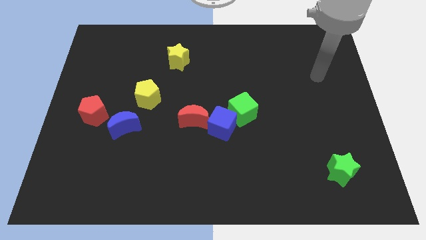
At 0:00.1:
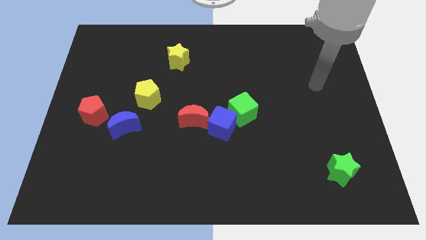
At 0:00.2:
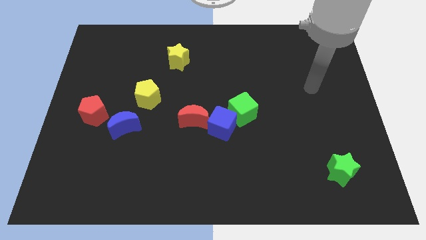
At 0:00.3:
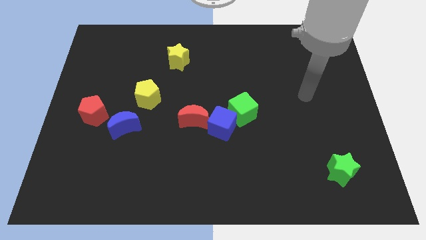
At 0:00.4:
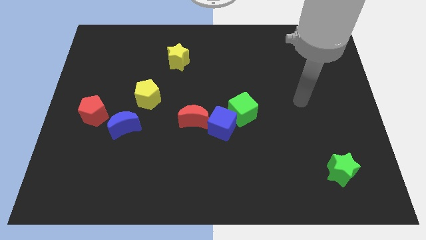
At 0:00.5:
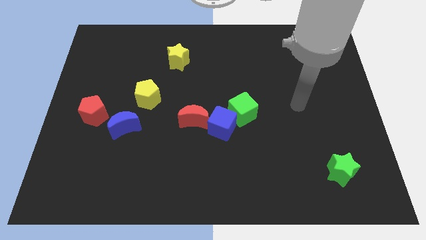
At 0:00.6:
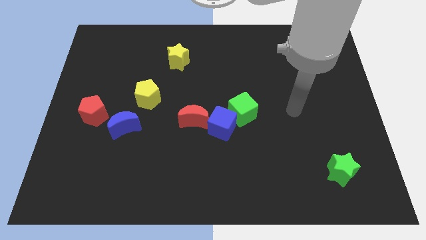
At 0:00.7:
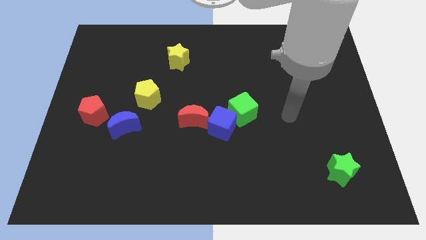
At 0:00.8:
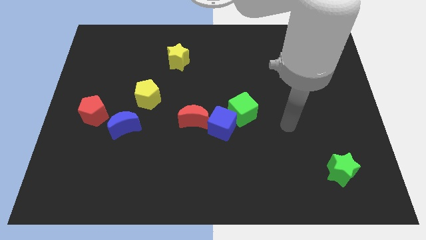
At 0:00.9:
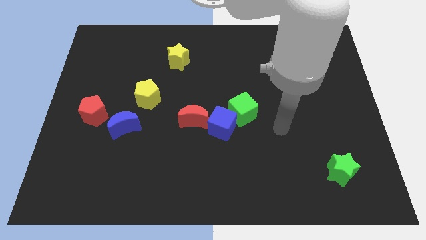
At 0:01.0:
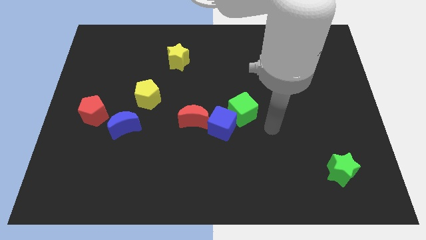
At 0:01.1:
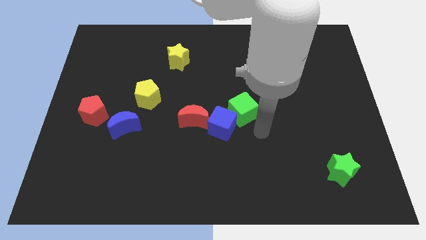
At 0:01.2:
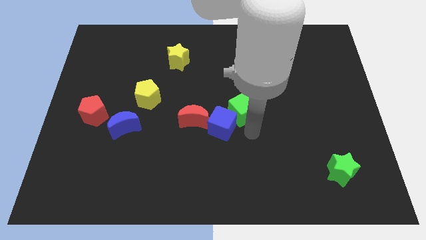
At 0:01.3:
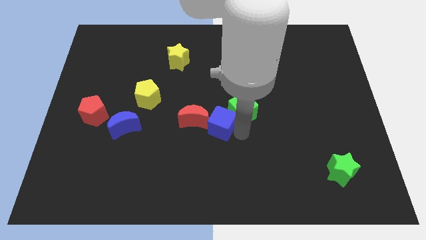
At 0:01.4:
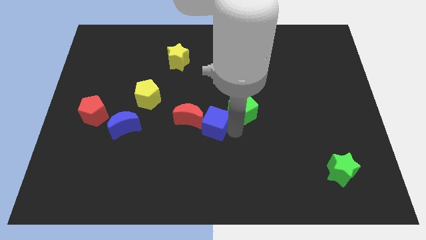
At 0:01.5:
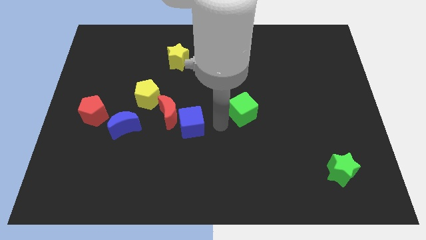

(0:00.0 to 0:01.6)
pull the green cube apart from the blue cube

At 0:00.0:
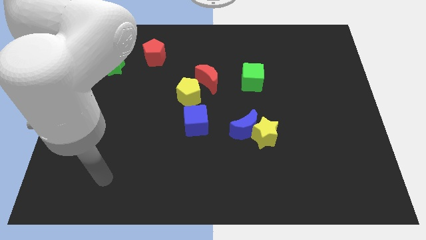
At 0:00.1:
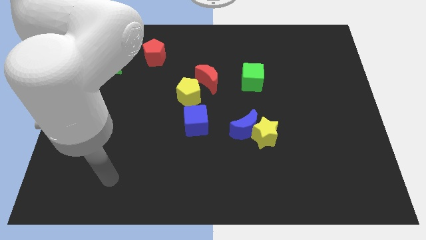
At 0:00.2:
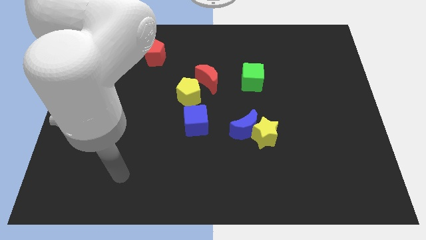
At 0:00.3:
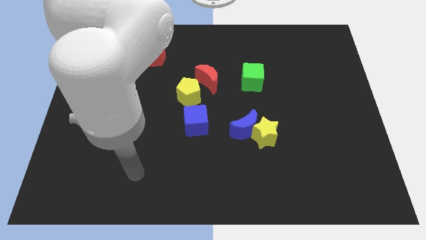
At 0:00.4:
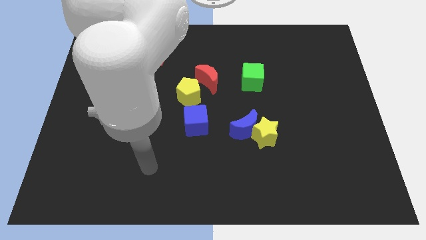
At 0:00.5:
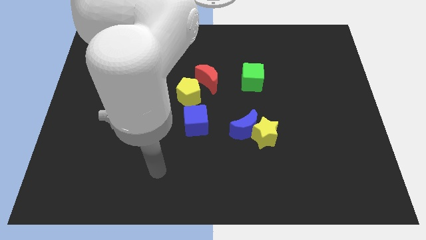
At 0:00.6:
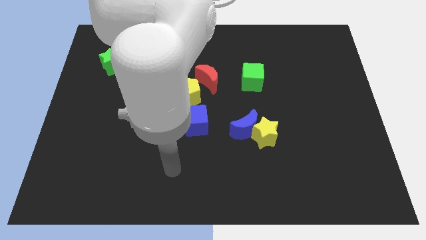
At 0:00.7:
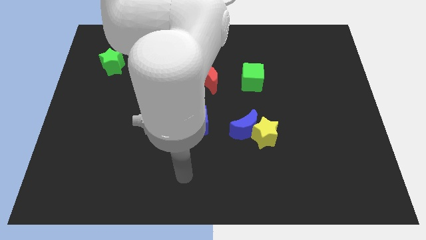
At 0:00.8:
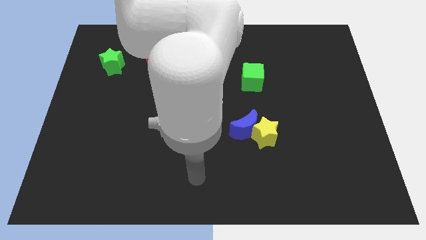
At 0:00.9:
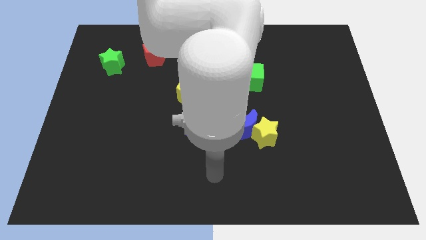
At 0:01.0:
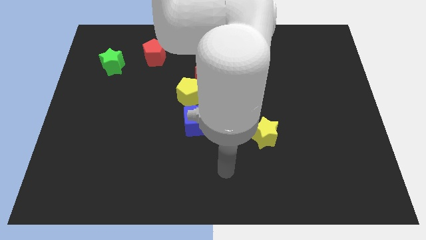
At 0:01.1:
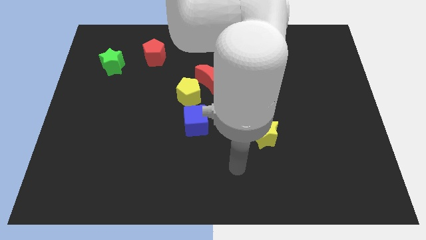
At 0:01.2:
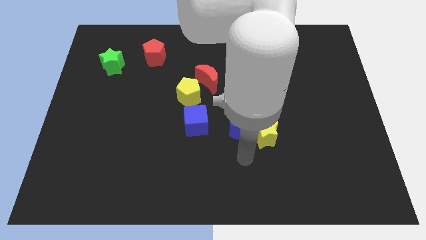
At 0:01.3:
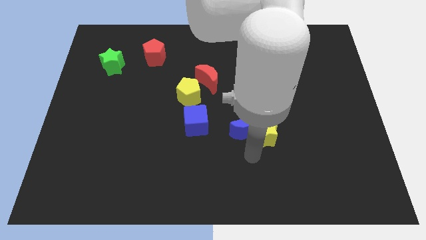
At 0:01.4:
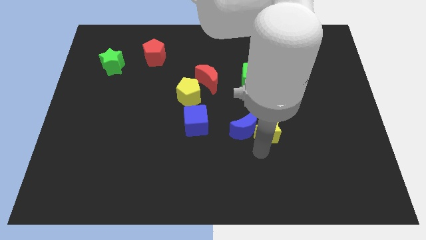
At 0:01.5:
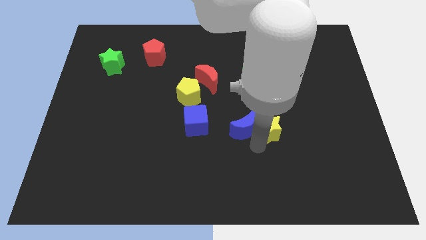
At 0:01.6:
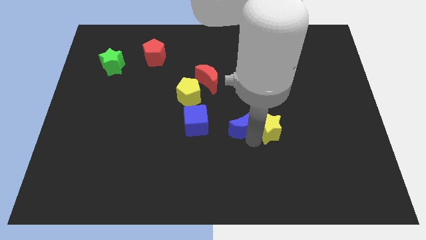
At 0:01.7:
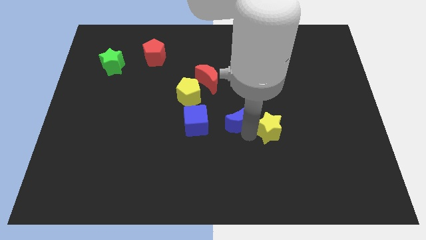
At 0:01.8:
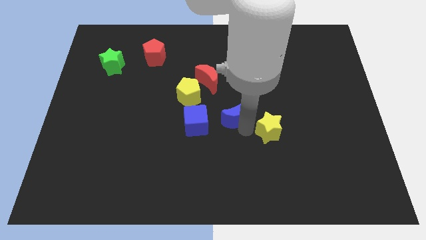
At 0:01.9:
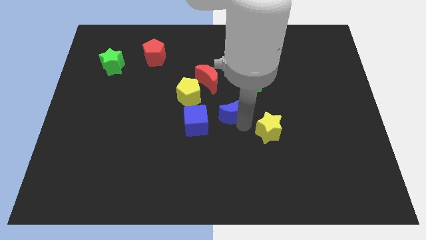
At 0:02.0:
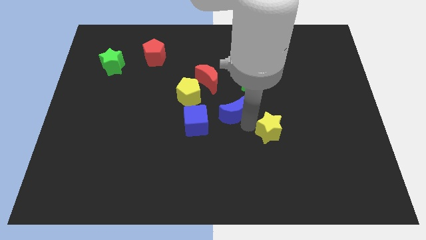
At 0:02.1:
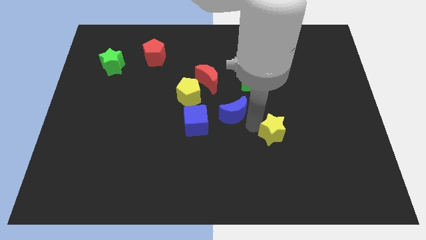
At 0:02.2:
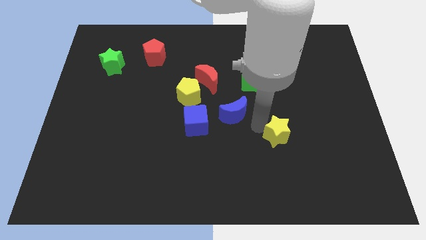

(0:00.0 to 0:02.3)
move the blue moon away from the yellow star

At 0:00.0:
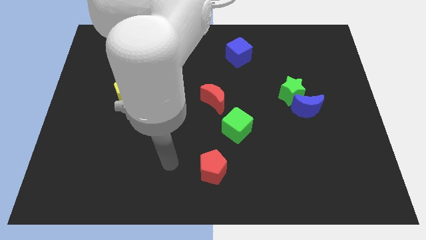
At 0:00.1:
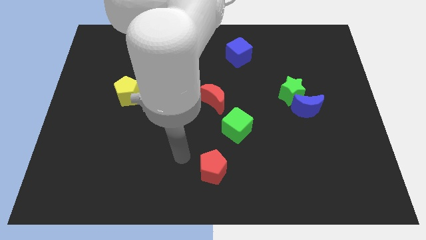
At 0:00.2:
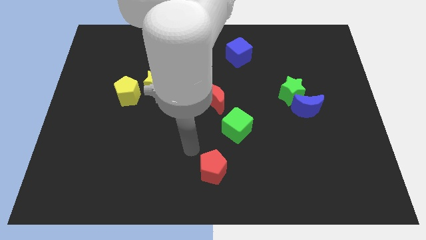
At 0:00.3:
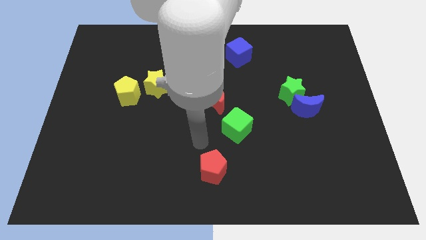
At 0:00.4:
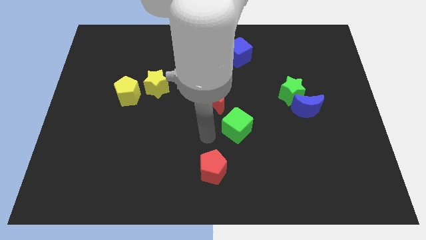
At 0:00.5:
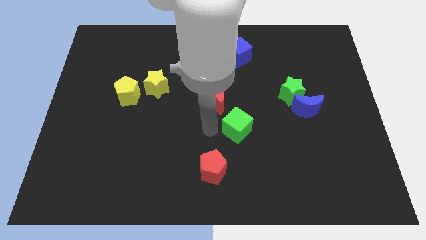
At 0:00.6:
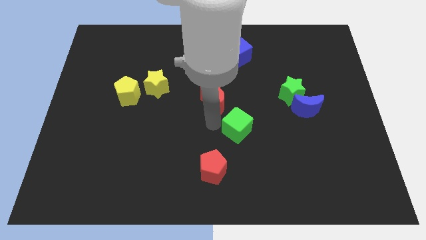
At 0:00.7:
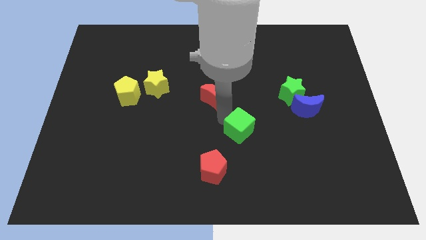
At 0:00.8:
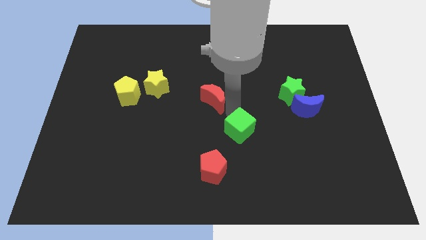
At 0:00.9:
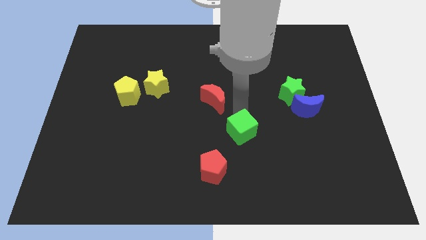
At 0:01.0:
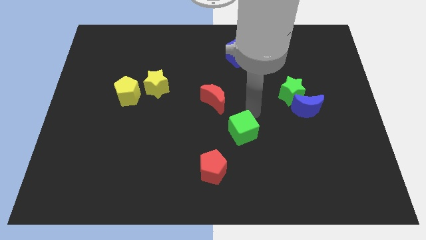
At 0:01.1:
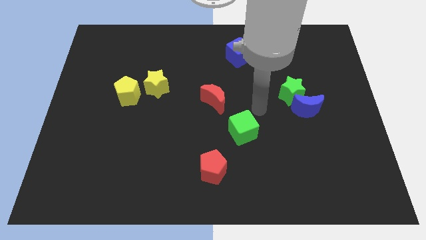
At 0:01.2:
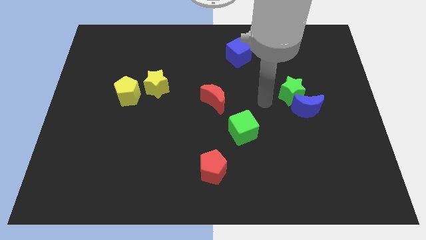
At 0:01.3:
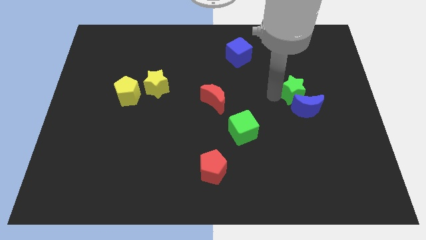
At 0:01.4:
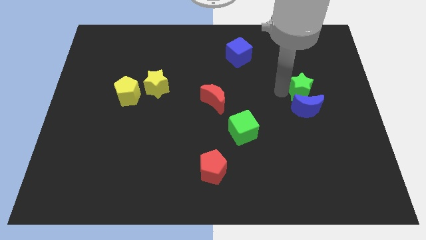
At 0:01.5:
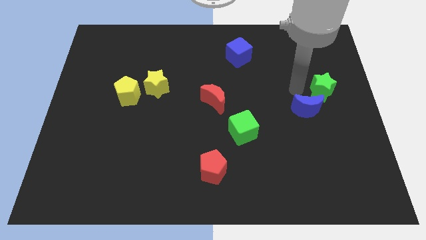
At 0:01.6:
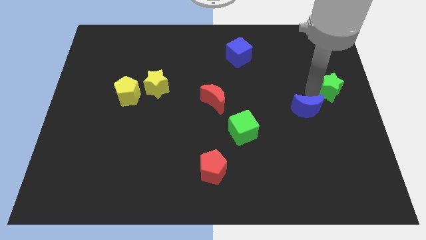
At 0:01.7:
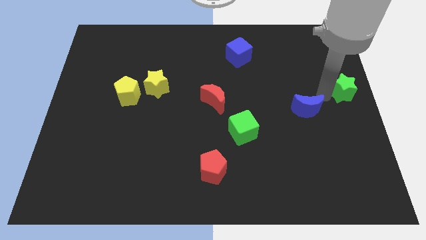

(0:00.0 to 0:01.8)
separate the blue moon from the green star

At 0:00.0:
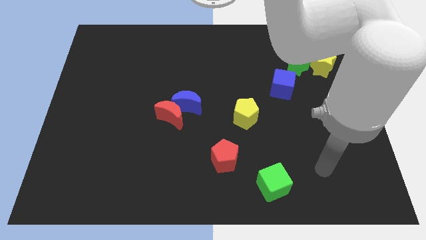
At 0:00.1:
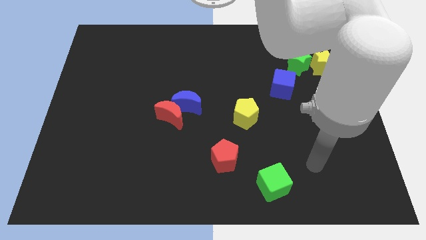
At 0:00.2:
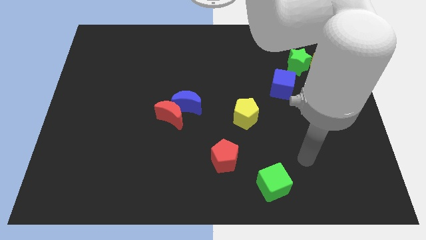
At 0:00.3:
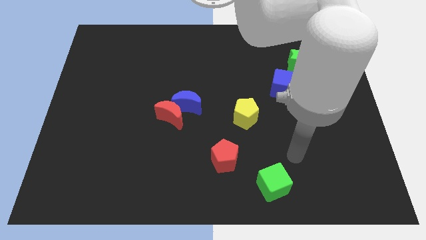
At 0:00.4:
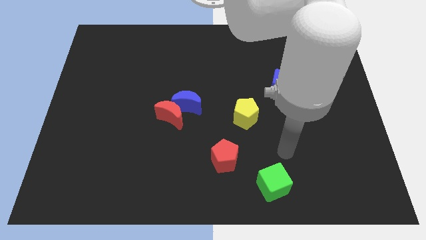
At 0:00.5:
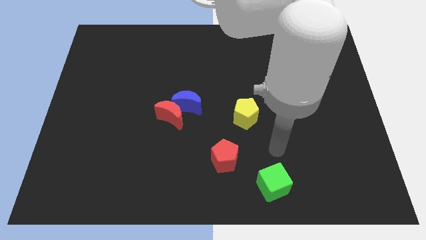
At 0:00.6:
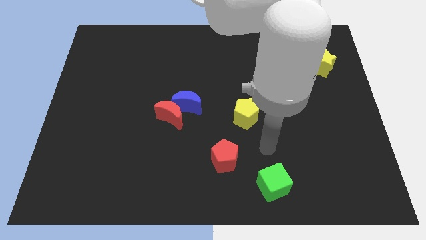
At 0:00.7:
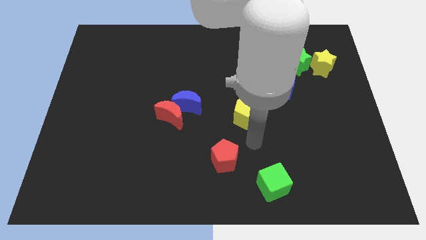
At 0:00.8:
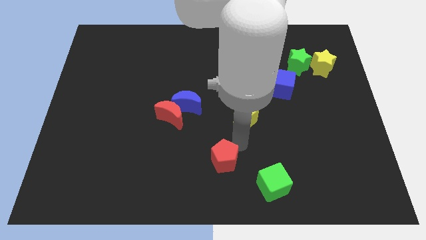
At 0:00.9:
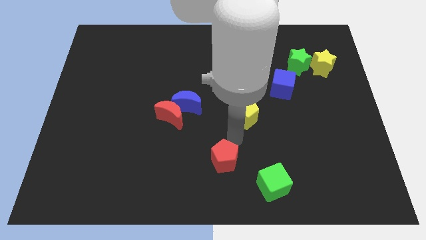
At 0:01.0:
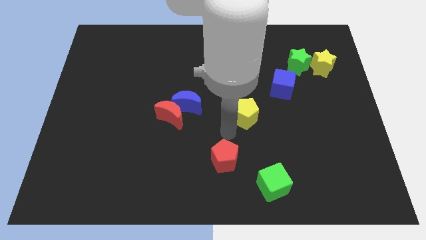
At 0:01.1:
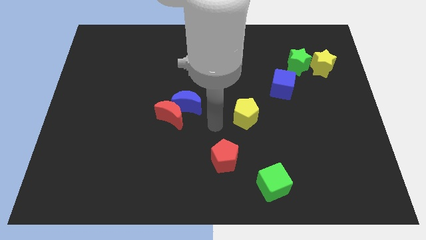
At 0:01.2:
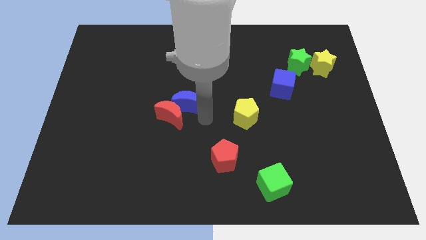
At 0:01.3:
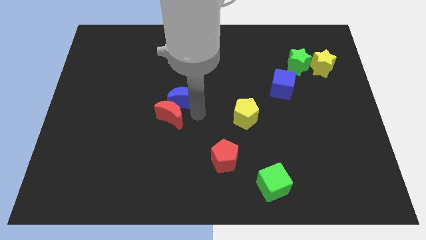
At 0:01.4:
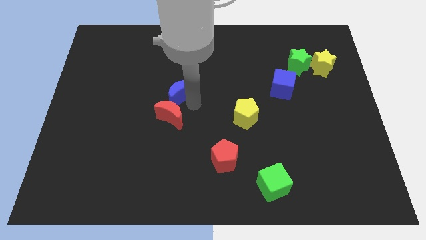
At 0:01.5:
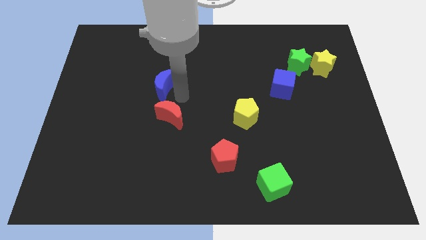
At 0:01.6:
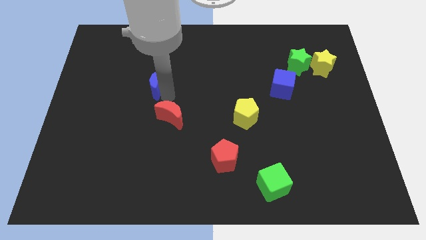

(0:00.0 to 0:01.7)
separate the red moon from the blue moon

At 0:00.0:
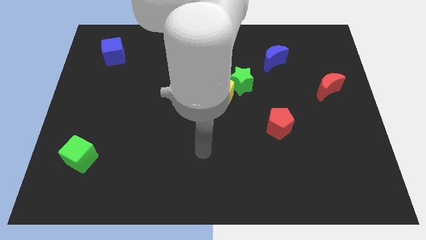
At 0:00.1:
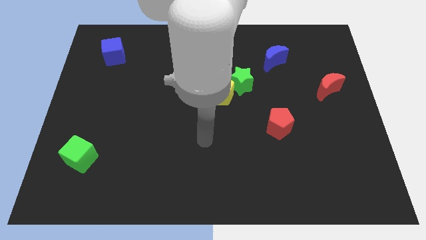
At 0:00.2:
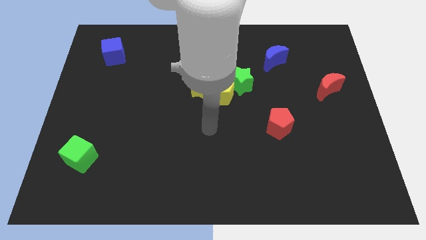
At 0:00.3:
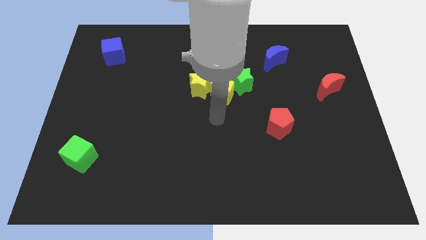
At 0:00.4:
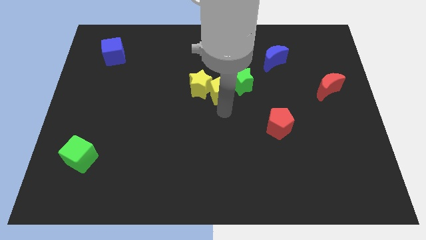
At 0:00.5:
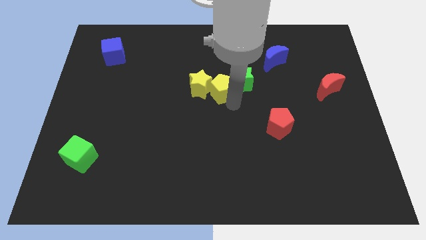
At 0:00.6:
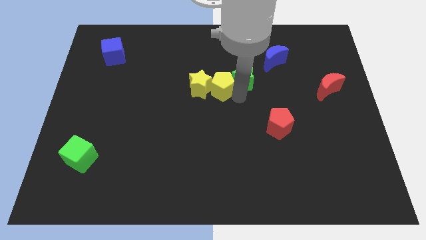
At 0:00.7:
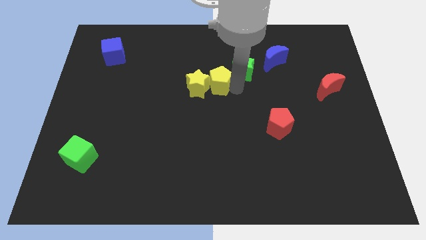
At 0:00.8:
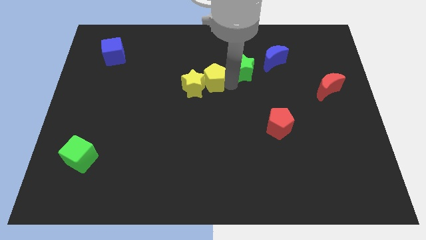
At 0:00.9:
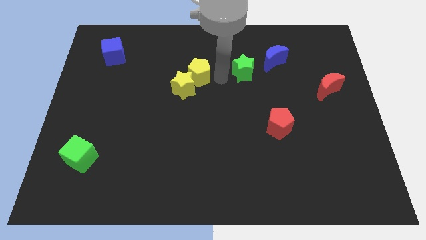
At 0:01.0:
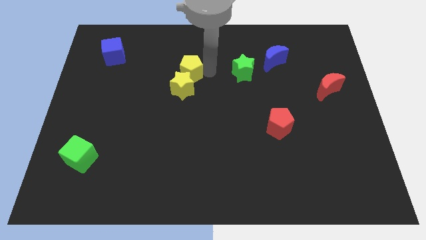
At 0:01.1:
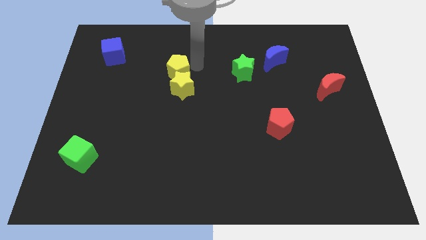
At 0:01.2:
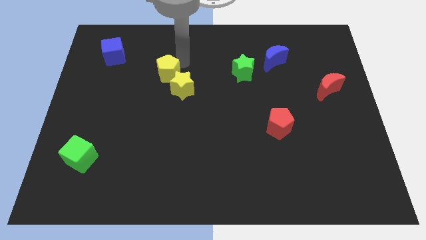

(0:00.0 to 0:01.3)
move the yellow pentagon away from the yellow star and green star

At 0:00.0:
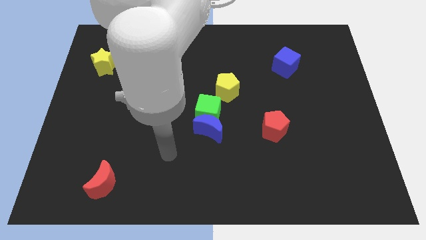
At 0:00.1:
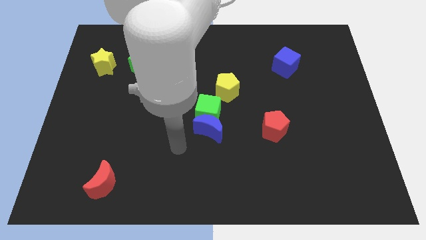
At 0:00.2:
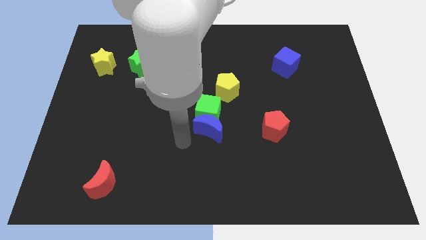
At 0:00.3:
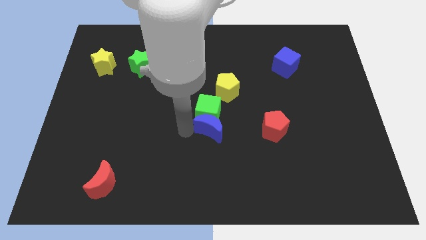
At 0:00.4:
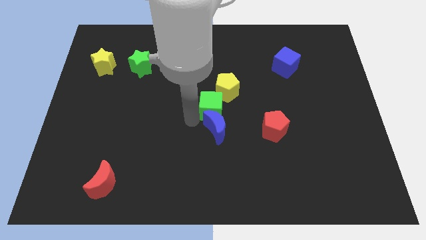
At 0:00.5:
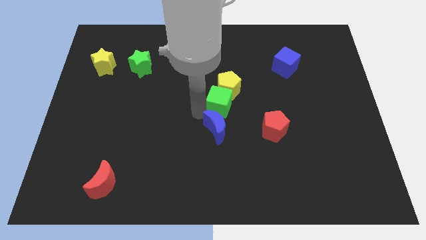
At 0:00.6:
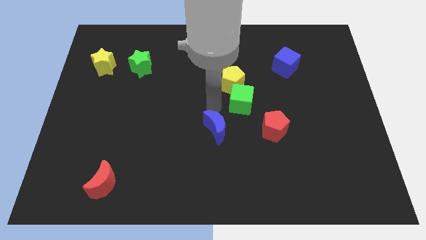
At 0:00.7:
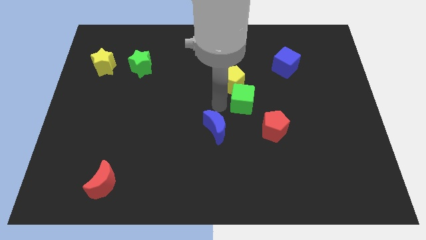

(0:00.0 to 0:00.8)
pull the blue moon apart from the green cube
